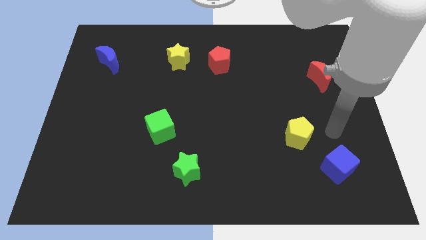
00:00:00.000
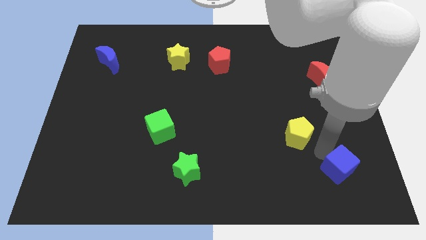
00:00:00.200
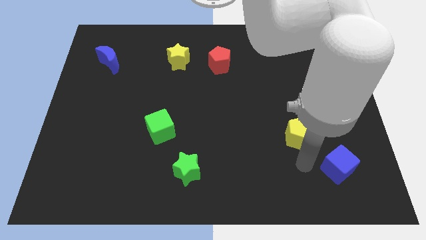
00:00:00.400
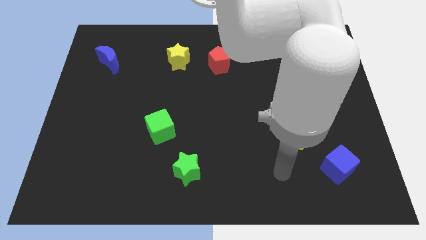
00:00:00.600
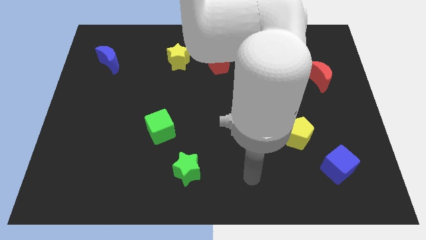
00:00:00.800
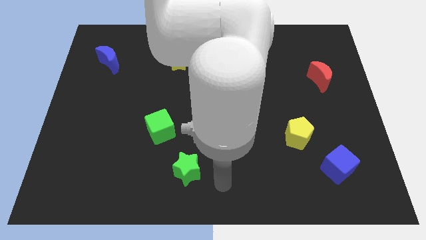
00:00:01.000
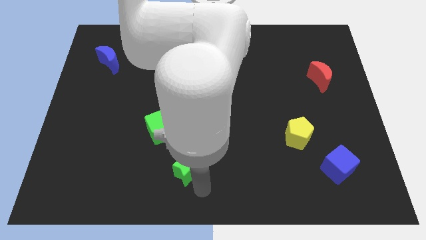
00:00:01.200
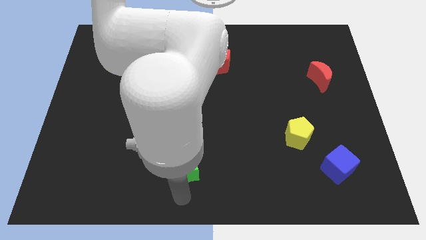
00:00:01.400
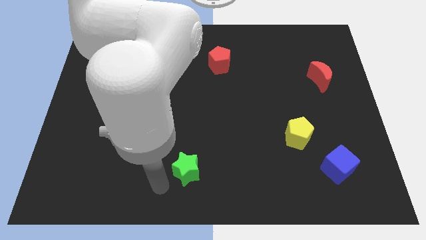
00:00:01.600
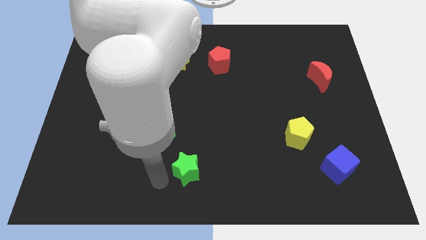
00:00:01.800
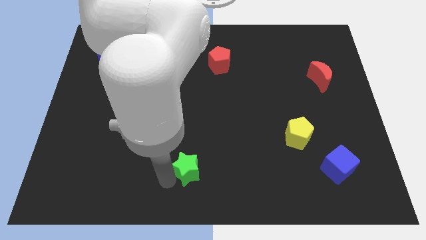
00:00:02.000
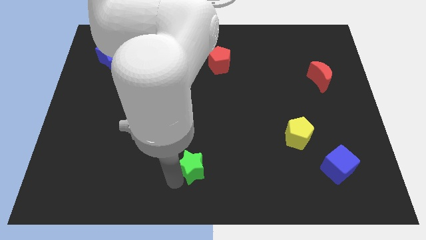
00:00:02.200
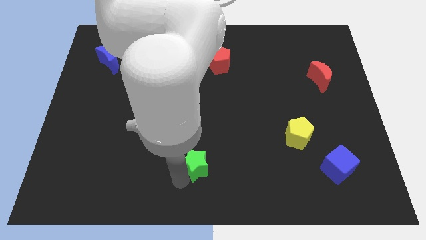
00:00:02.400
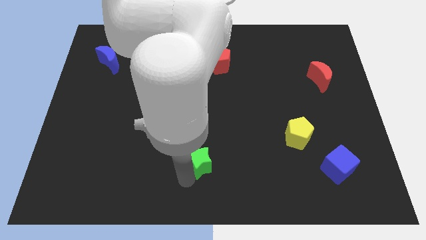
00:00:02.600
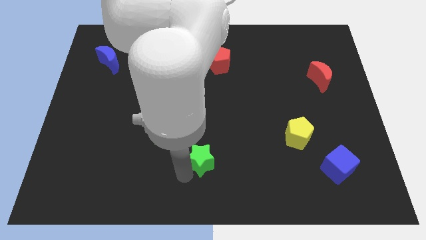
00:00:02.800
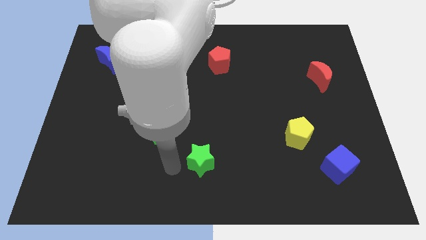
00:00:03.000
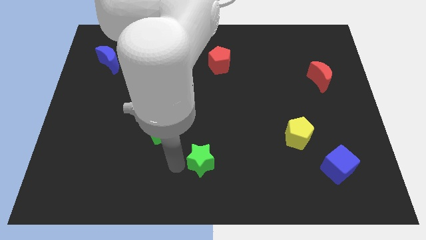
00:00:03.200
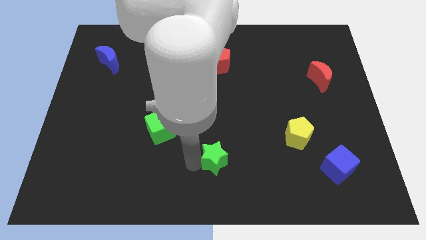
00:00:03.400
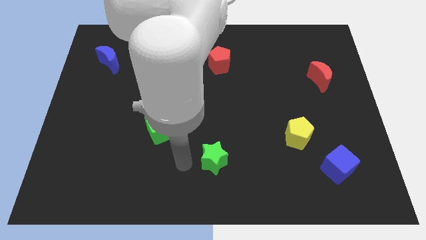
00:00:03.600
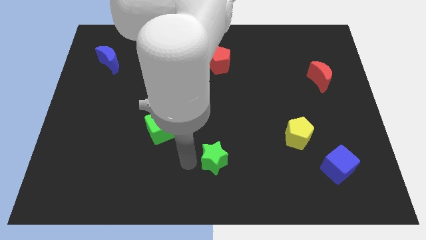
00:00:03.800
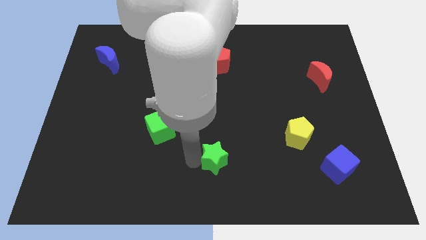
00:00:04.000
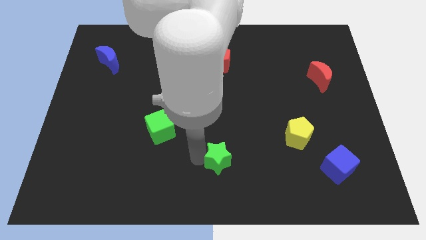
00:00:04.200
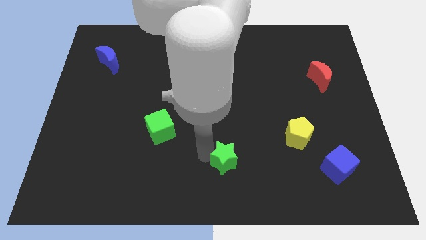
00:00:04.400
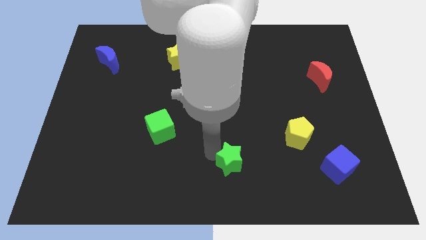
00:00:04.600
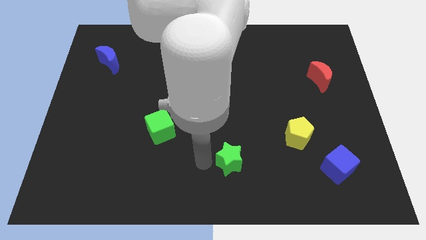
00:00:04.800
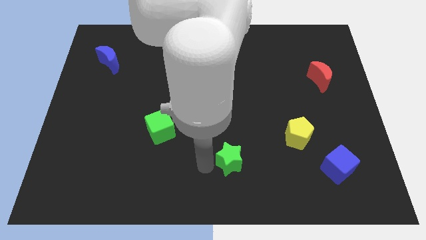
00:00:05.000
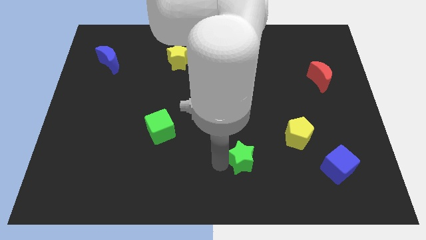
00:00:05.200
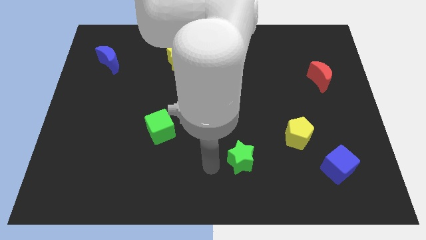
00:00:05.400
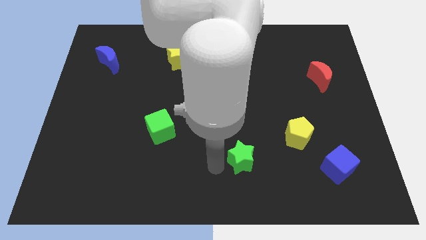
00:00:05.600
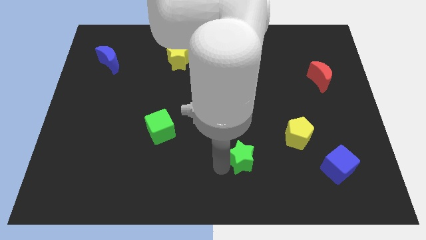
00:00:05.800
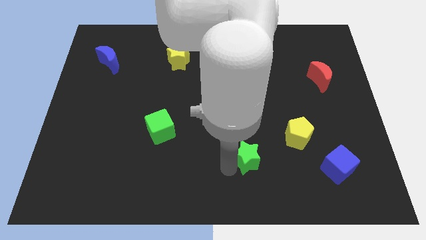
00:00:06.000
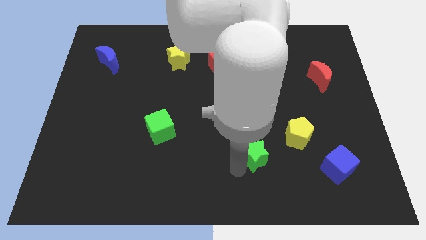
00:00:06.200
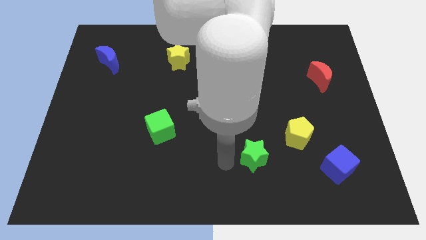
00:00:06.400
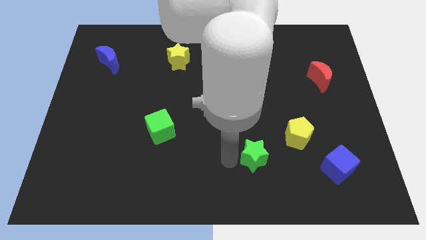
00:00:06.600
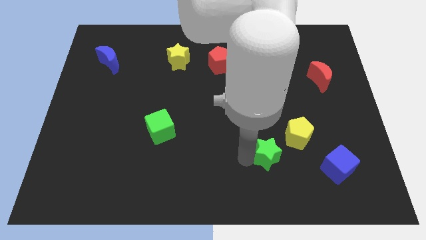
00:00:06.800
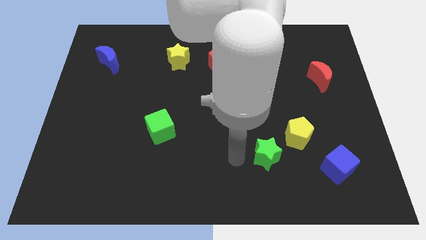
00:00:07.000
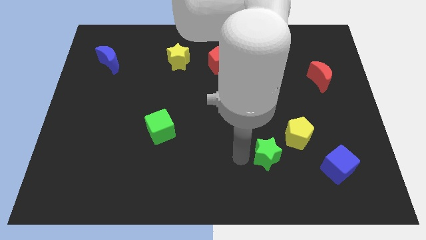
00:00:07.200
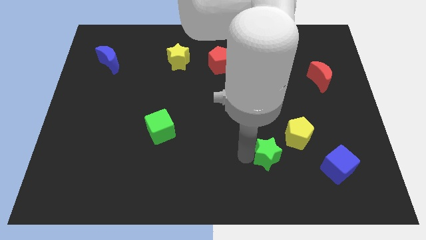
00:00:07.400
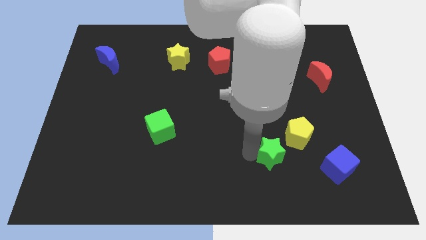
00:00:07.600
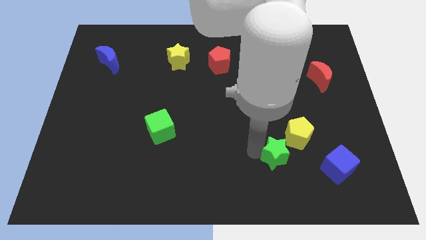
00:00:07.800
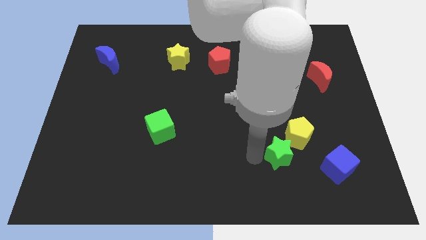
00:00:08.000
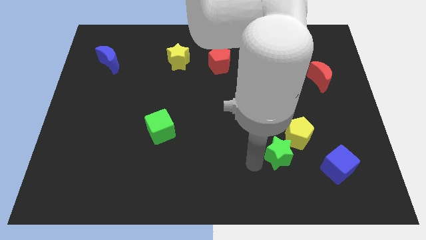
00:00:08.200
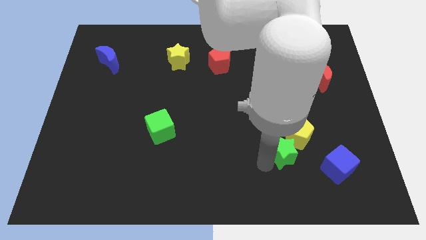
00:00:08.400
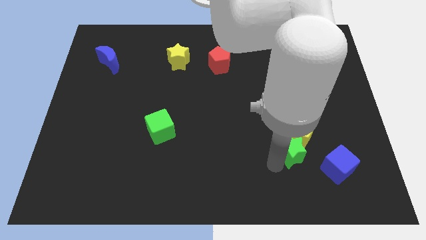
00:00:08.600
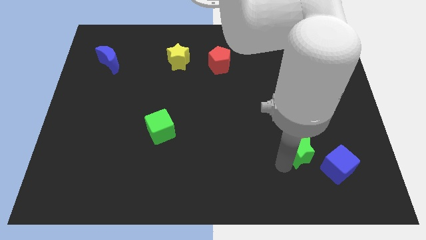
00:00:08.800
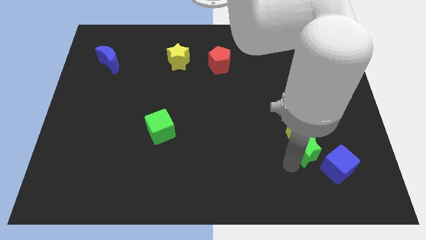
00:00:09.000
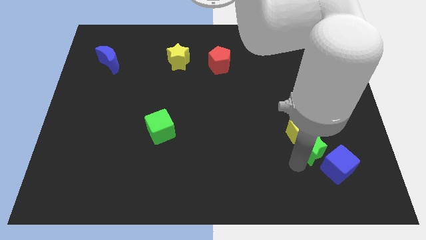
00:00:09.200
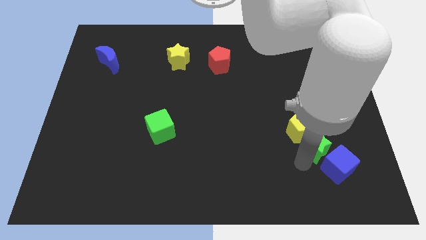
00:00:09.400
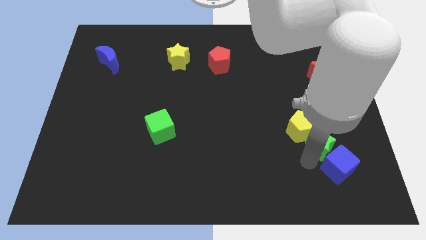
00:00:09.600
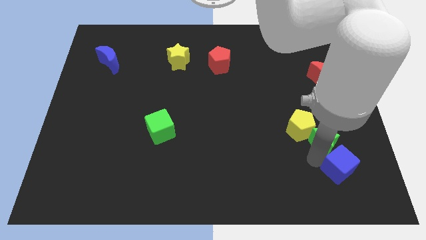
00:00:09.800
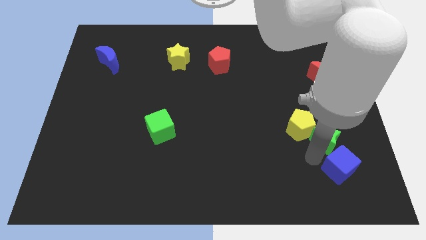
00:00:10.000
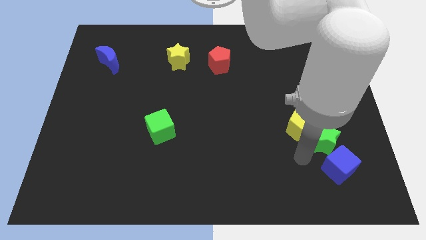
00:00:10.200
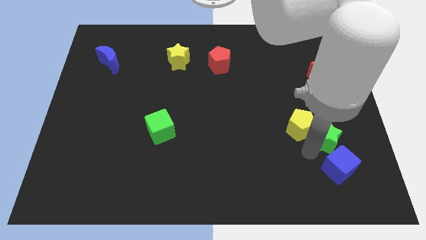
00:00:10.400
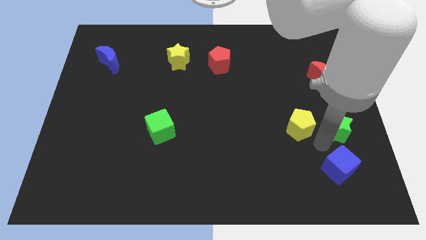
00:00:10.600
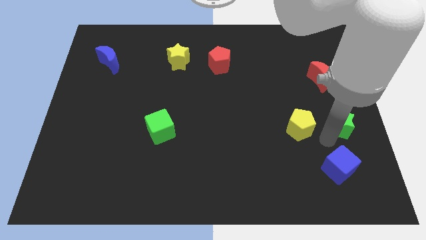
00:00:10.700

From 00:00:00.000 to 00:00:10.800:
slide the green star to the right side

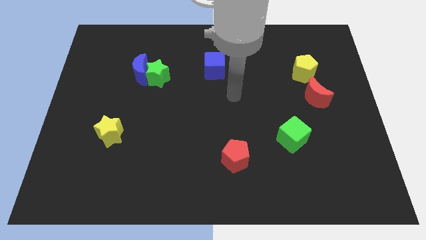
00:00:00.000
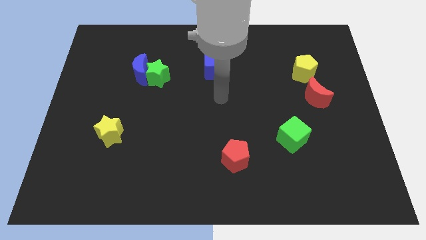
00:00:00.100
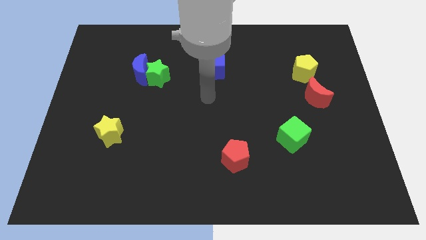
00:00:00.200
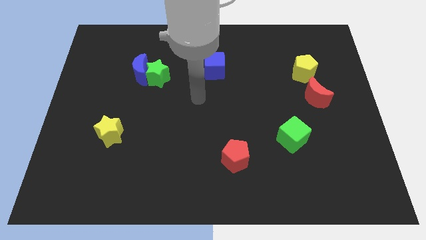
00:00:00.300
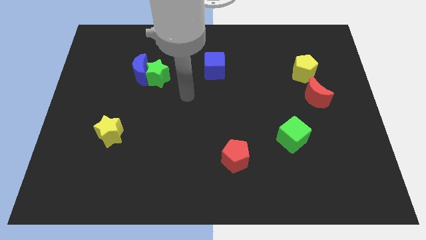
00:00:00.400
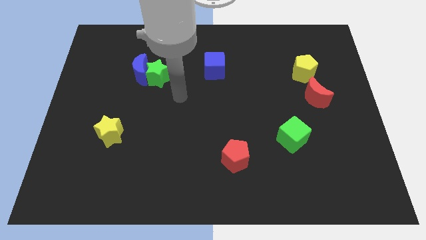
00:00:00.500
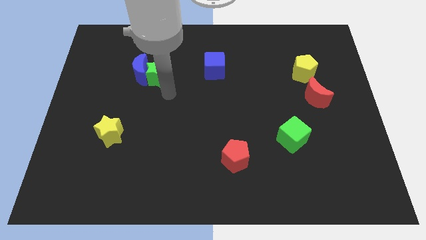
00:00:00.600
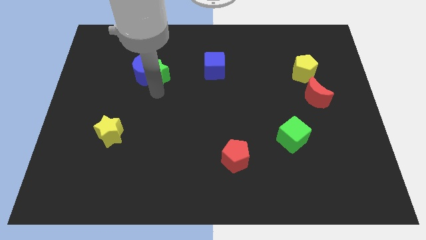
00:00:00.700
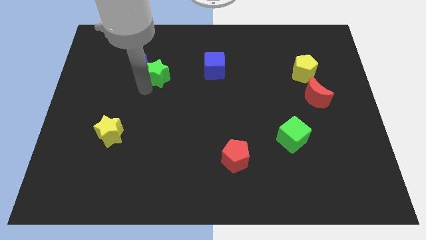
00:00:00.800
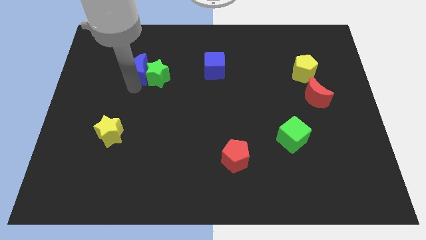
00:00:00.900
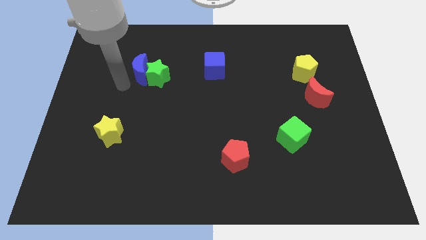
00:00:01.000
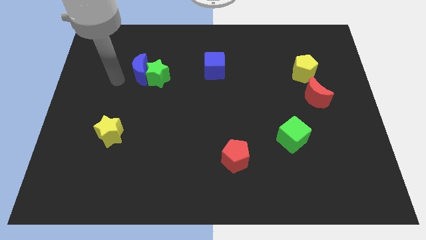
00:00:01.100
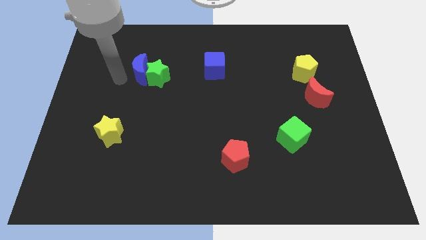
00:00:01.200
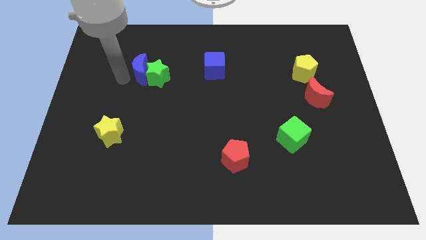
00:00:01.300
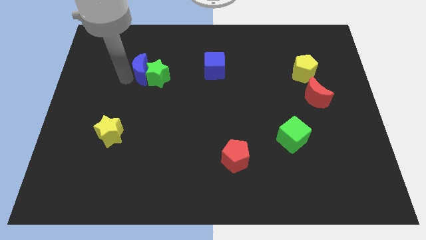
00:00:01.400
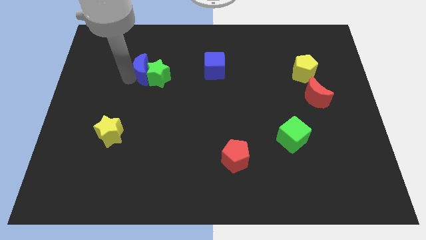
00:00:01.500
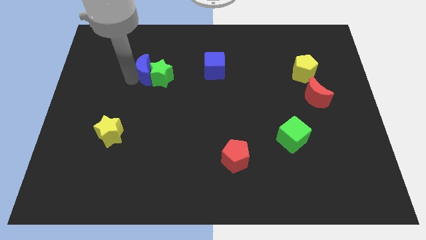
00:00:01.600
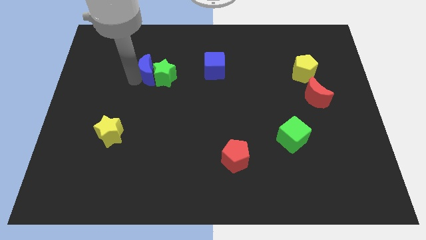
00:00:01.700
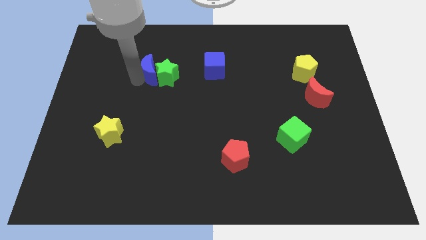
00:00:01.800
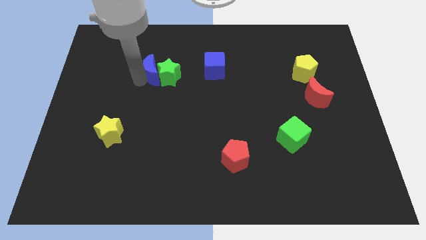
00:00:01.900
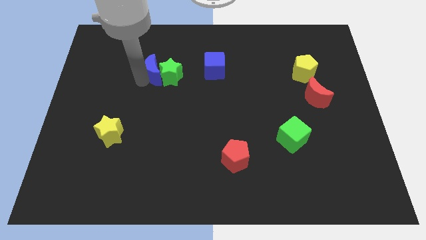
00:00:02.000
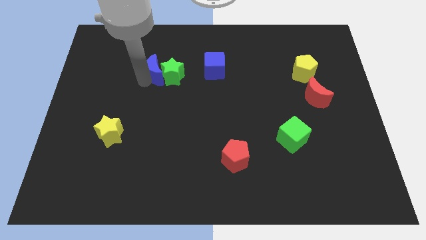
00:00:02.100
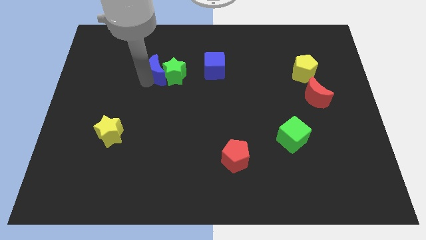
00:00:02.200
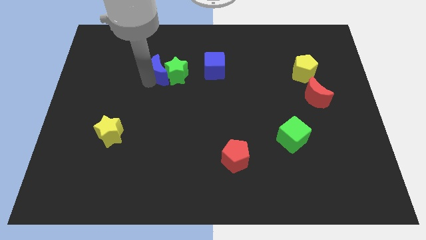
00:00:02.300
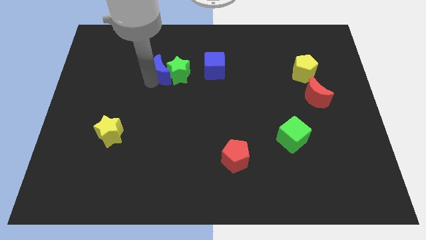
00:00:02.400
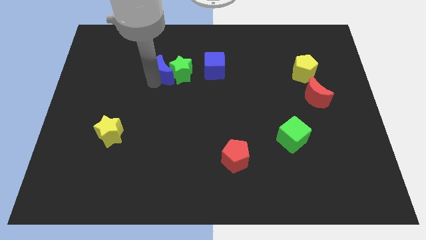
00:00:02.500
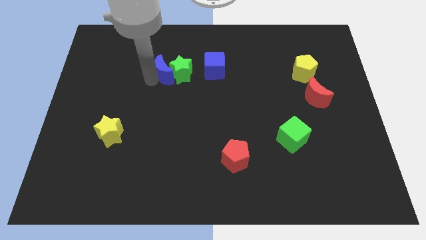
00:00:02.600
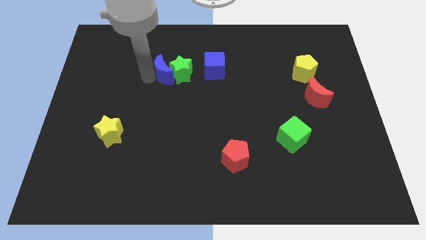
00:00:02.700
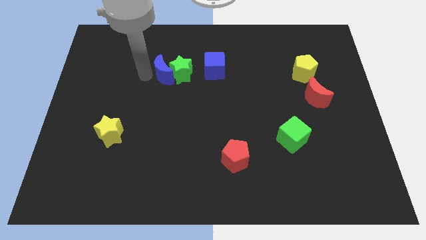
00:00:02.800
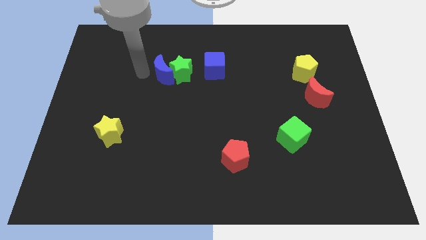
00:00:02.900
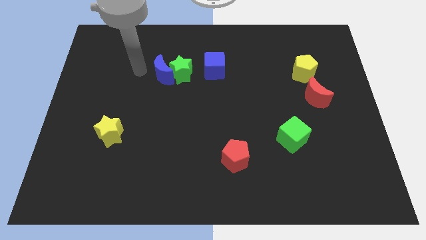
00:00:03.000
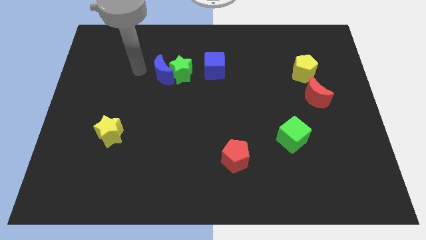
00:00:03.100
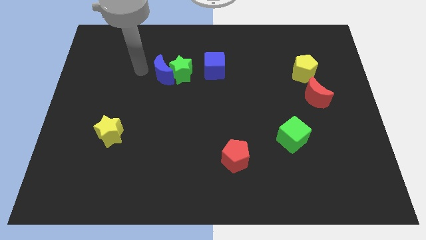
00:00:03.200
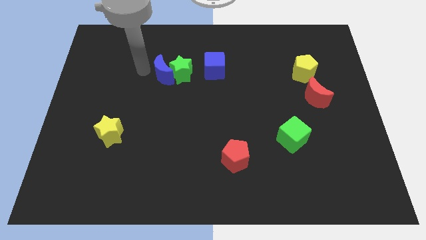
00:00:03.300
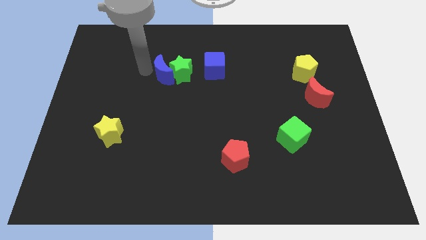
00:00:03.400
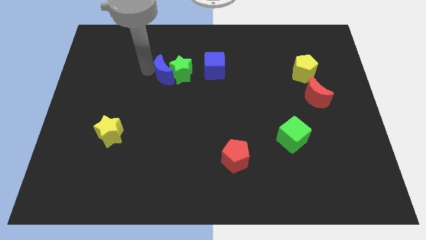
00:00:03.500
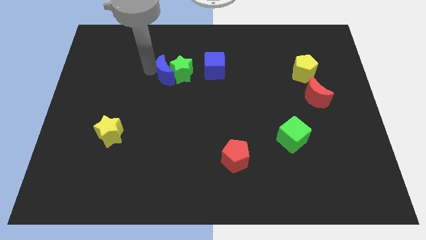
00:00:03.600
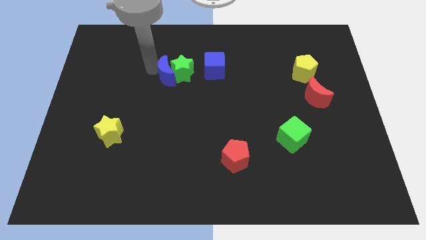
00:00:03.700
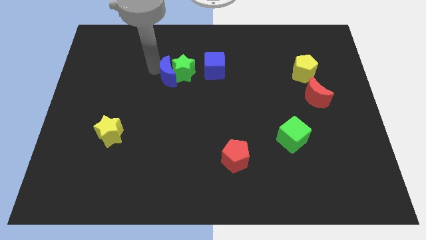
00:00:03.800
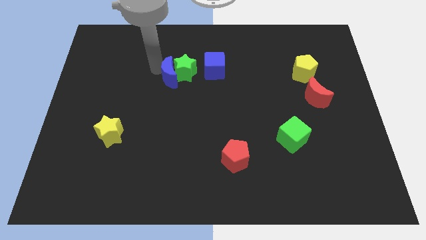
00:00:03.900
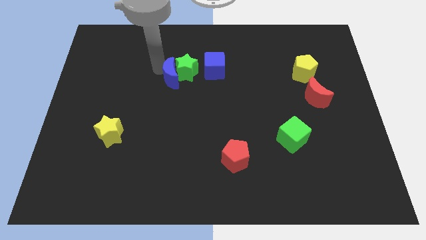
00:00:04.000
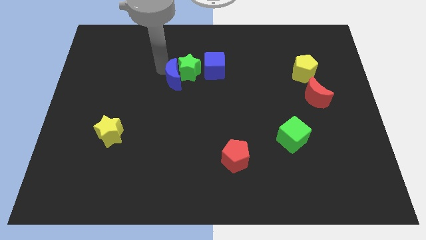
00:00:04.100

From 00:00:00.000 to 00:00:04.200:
move the blue moon to the middle
